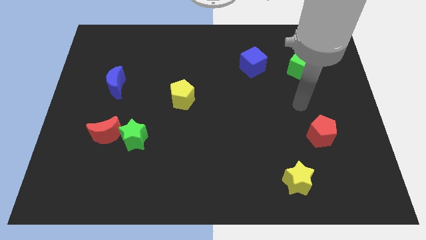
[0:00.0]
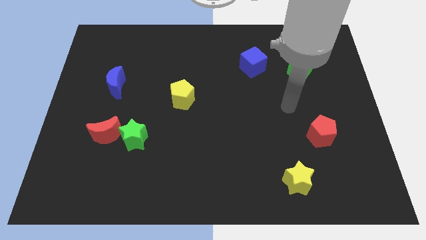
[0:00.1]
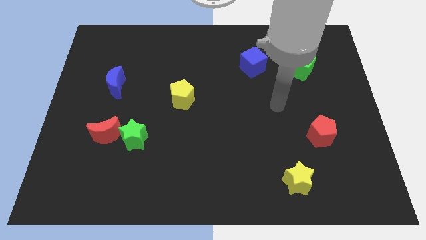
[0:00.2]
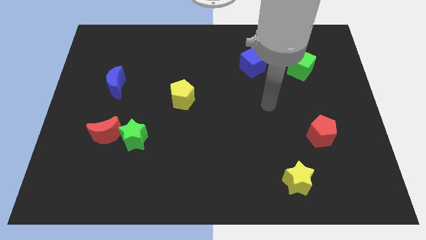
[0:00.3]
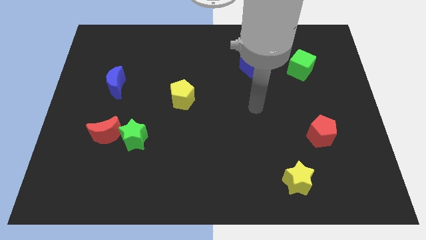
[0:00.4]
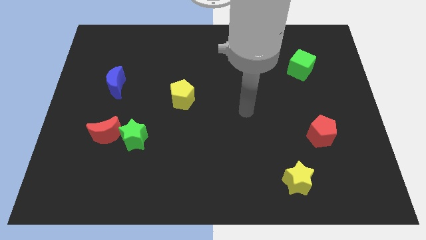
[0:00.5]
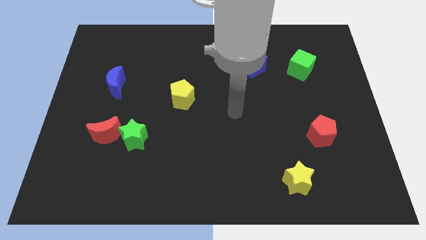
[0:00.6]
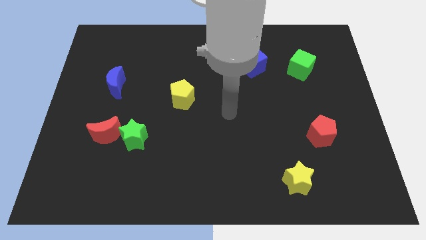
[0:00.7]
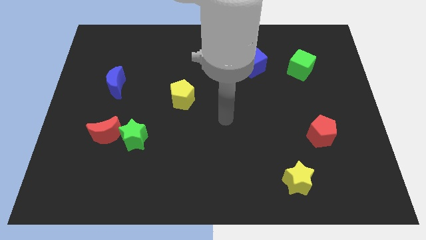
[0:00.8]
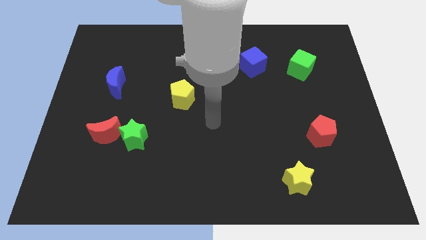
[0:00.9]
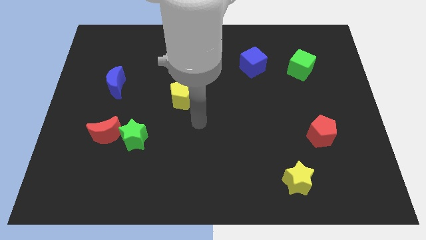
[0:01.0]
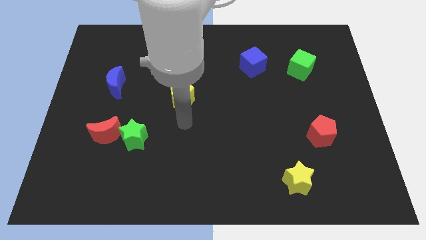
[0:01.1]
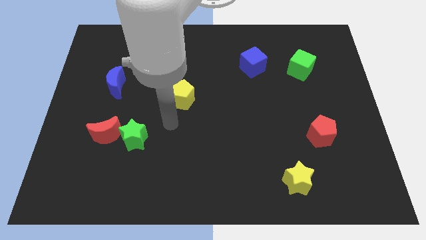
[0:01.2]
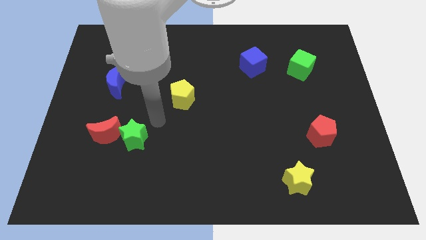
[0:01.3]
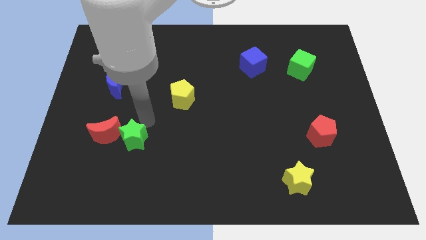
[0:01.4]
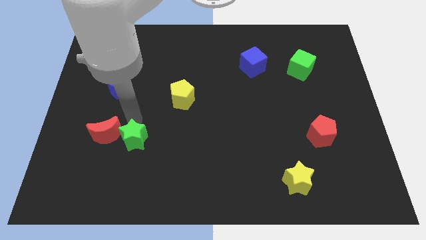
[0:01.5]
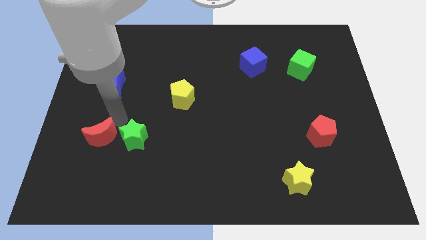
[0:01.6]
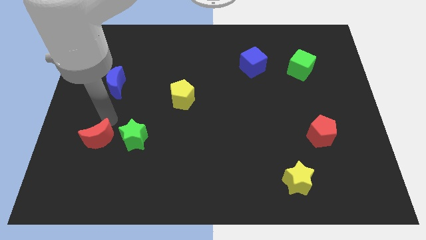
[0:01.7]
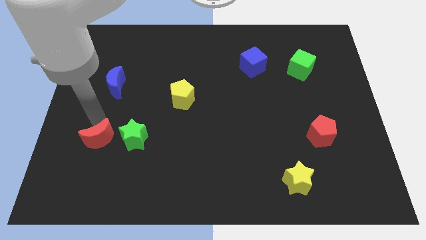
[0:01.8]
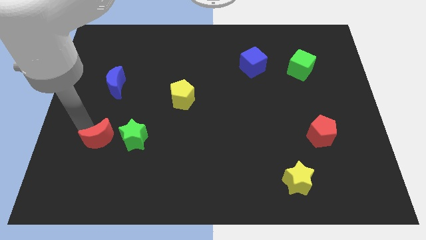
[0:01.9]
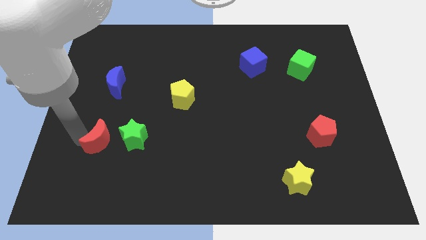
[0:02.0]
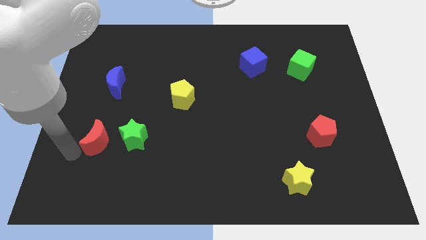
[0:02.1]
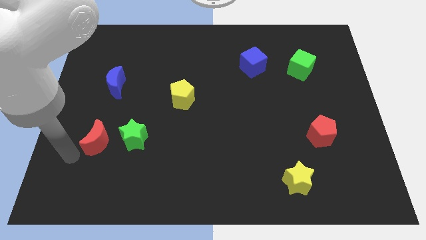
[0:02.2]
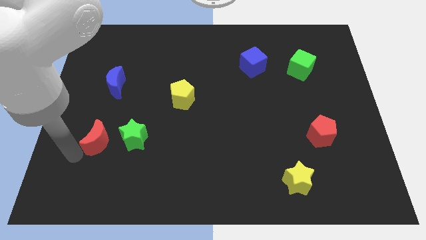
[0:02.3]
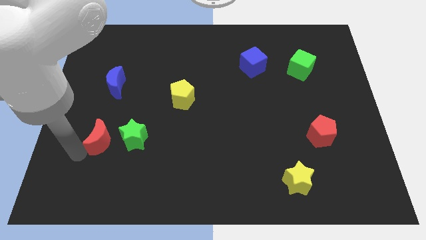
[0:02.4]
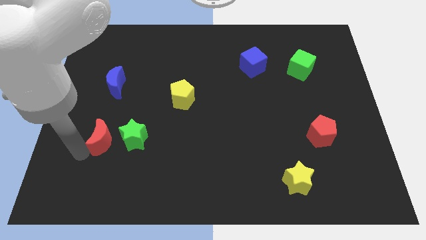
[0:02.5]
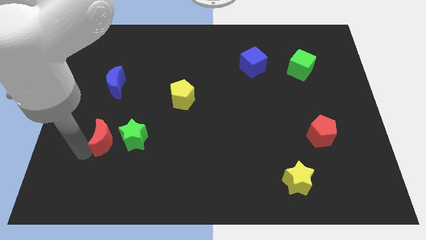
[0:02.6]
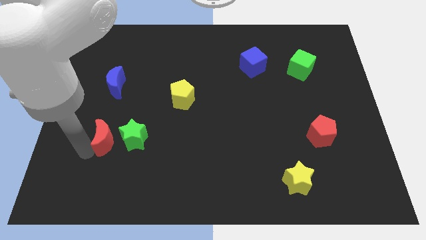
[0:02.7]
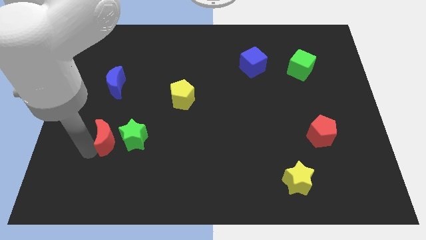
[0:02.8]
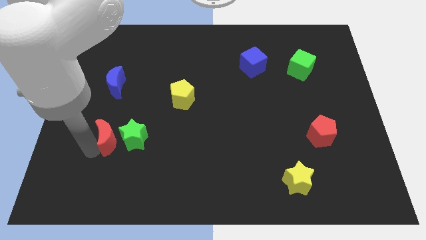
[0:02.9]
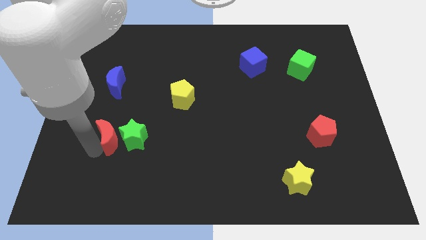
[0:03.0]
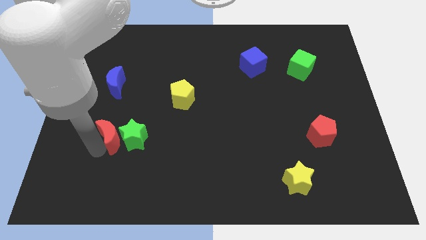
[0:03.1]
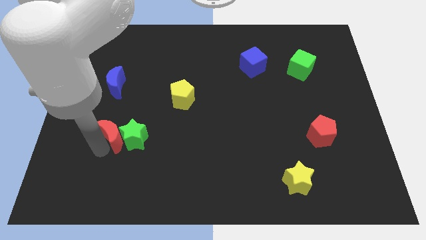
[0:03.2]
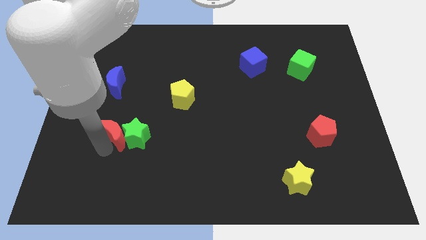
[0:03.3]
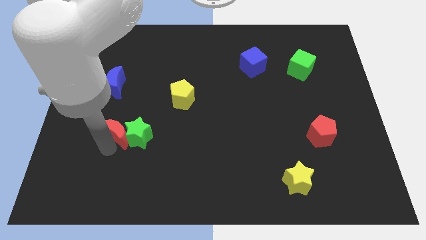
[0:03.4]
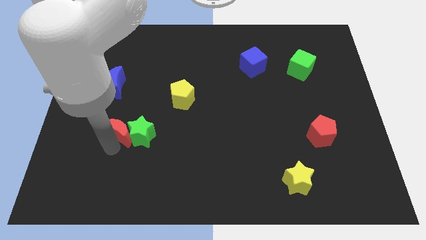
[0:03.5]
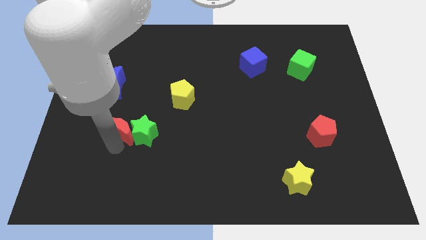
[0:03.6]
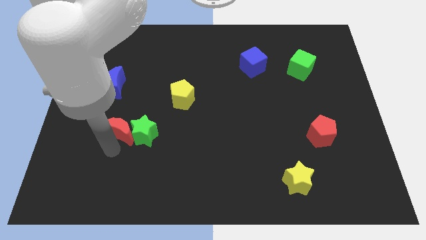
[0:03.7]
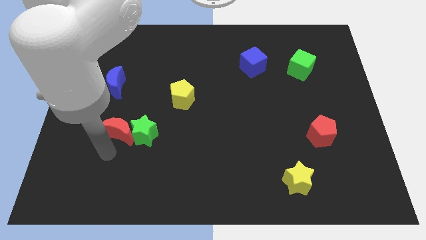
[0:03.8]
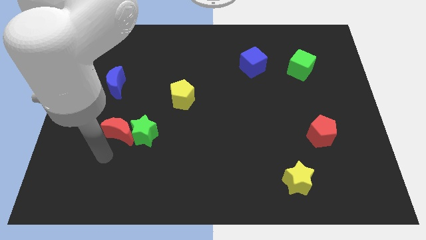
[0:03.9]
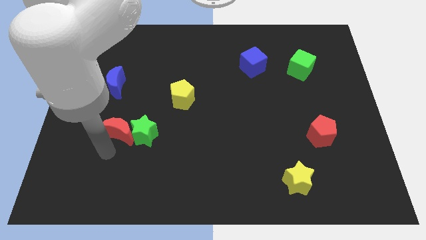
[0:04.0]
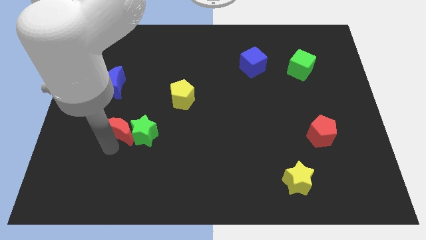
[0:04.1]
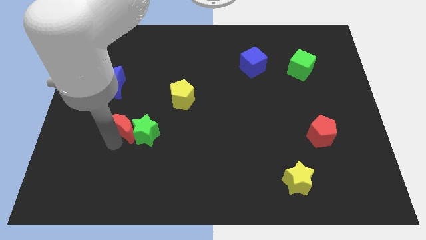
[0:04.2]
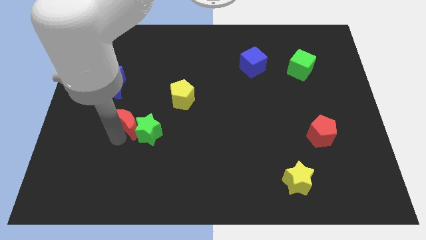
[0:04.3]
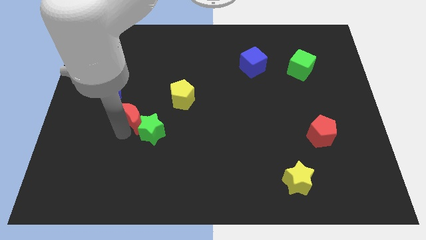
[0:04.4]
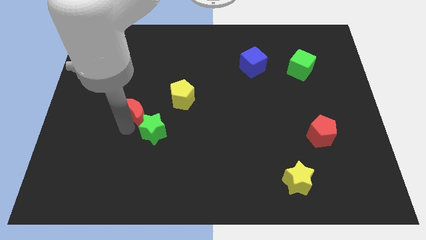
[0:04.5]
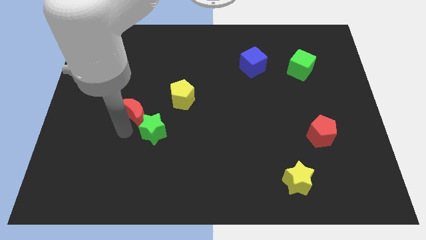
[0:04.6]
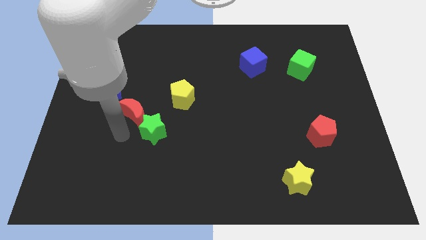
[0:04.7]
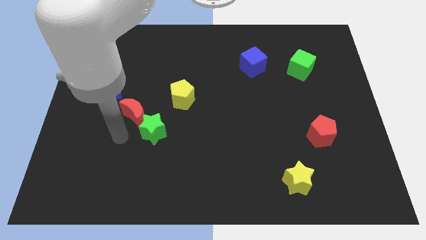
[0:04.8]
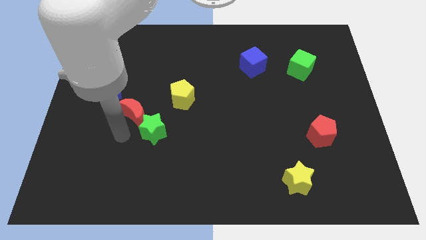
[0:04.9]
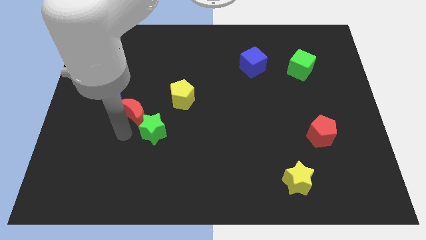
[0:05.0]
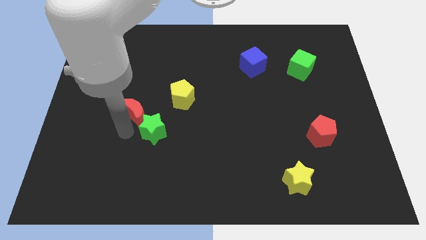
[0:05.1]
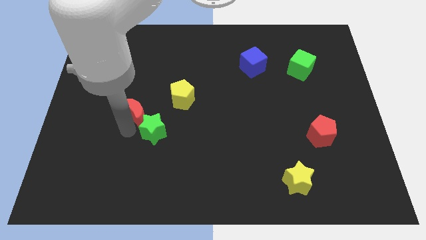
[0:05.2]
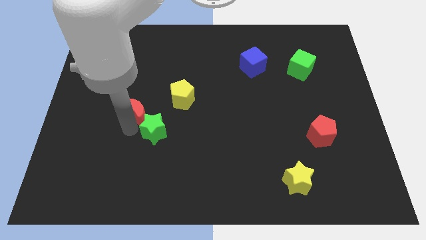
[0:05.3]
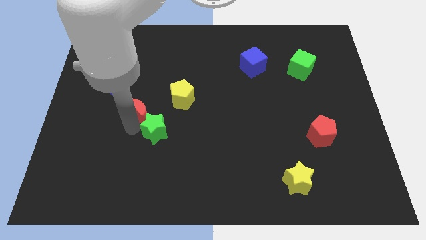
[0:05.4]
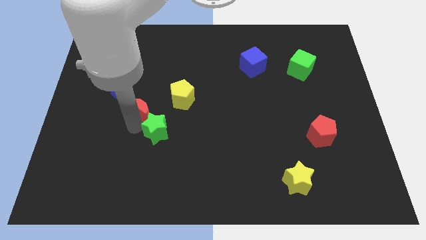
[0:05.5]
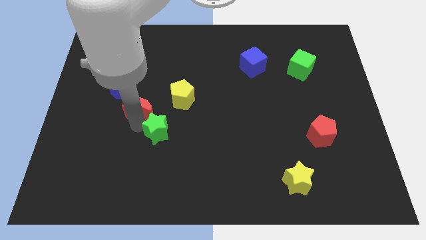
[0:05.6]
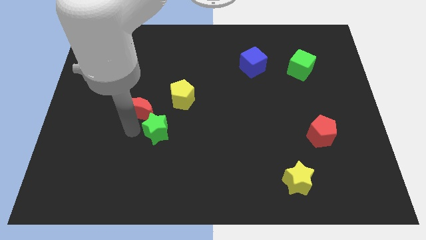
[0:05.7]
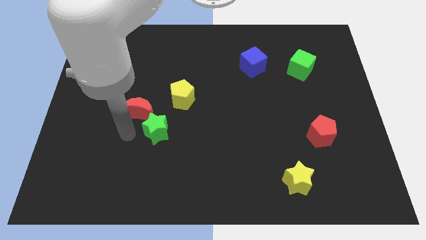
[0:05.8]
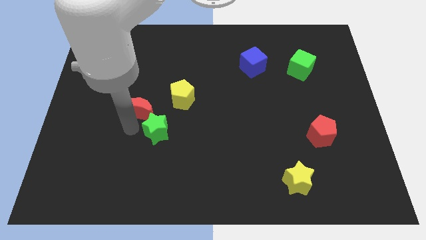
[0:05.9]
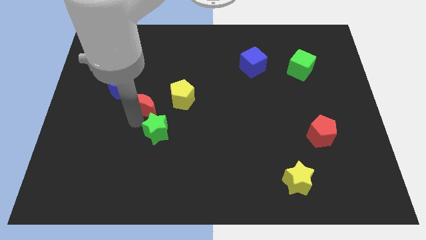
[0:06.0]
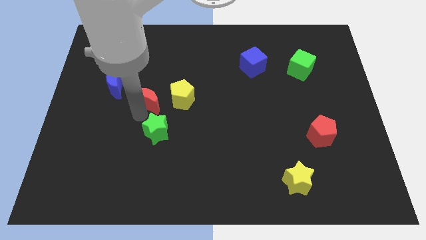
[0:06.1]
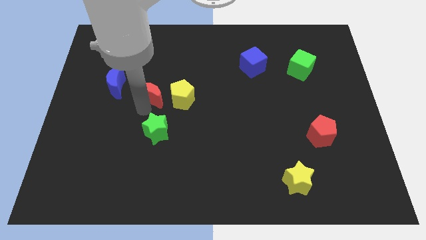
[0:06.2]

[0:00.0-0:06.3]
put the red moon to the right side of the blue moon

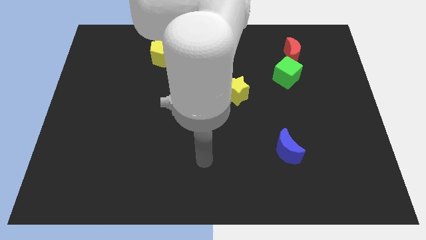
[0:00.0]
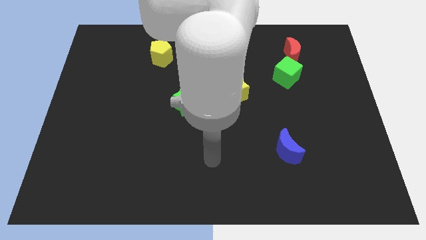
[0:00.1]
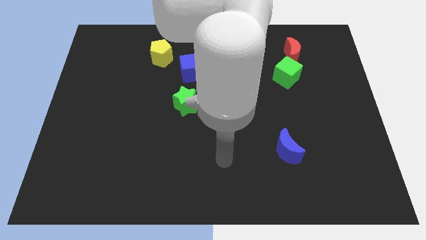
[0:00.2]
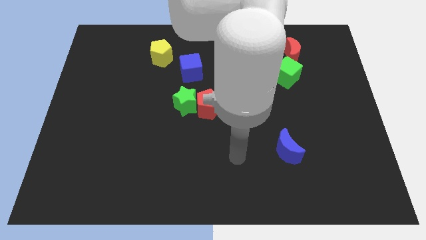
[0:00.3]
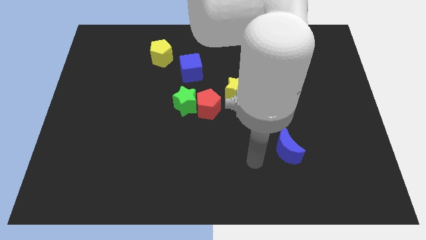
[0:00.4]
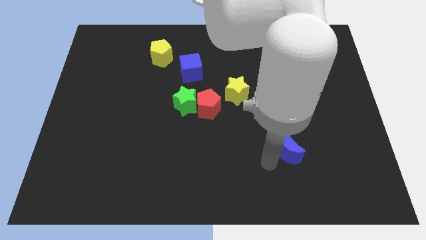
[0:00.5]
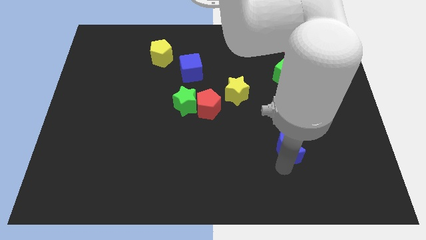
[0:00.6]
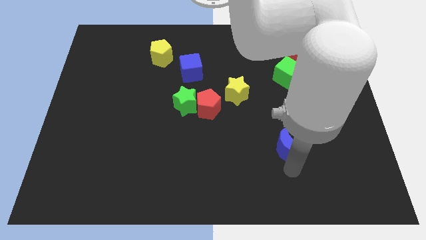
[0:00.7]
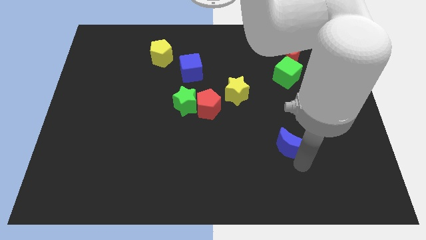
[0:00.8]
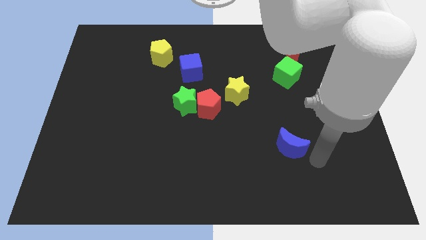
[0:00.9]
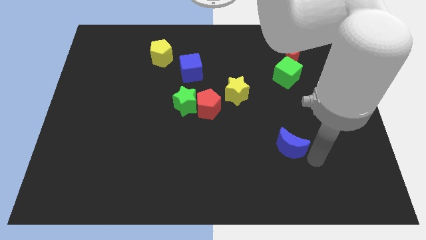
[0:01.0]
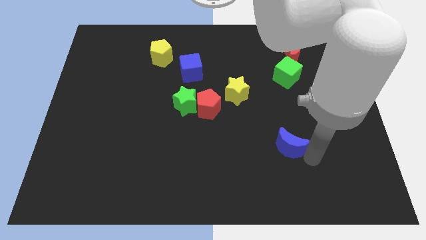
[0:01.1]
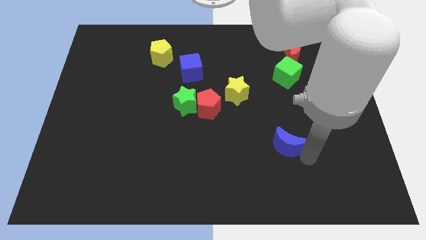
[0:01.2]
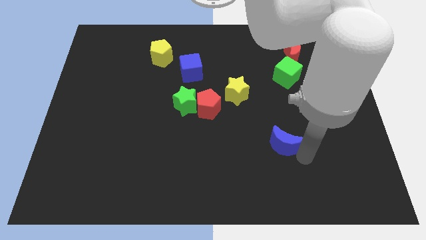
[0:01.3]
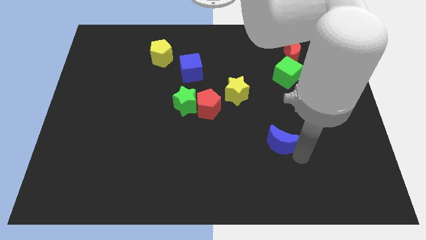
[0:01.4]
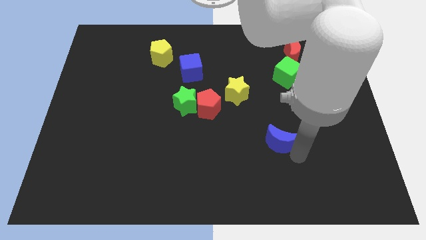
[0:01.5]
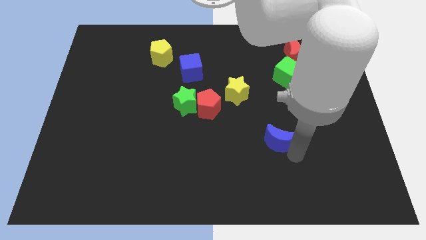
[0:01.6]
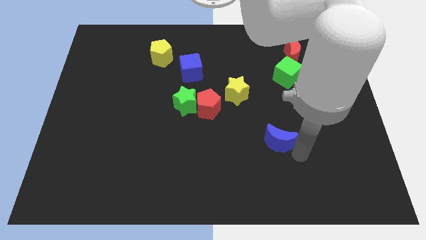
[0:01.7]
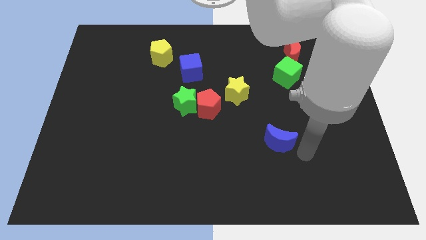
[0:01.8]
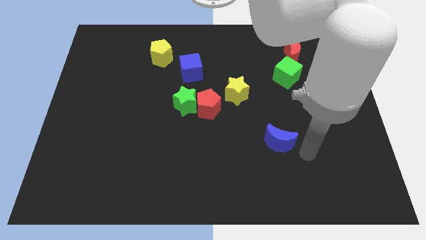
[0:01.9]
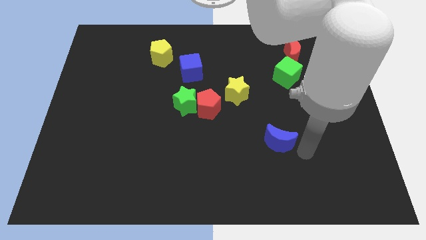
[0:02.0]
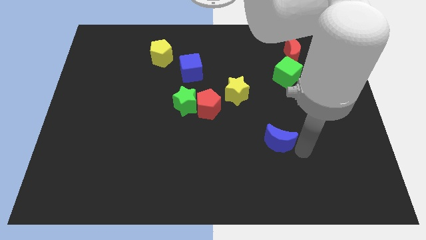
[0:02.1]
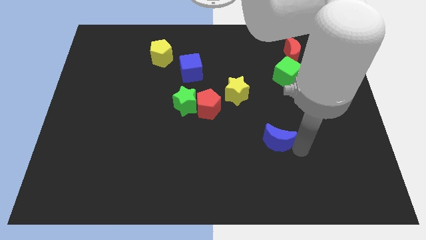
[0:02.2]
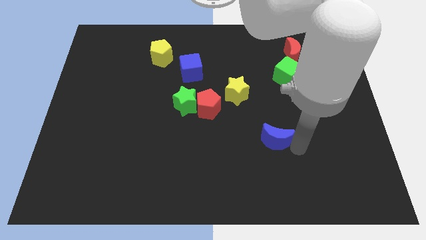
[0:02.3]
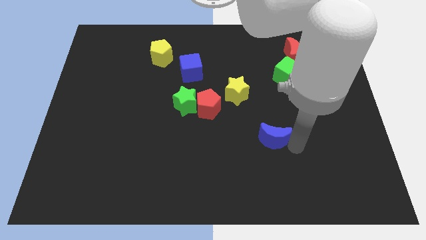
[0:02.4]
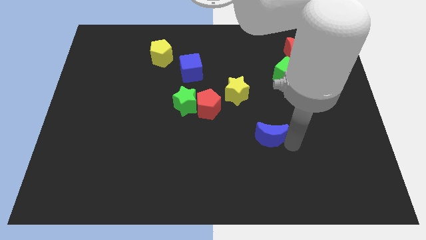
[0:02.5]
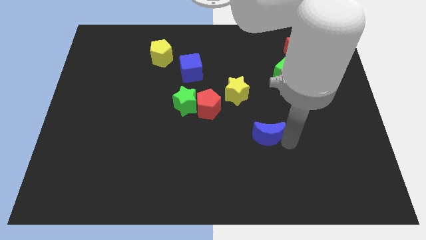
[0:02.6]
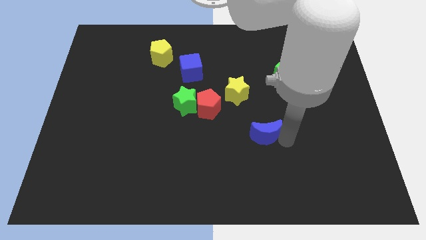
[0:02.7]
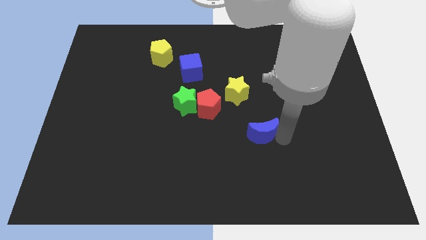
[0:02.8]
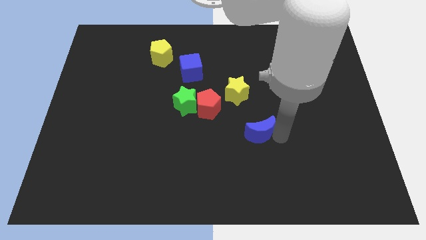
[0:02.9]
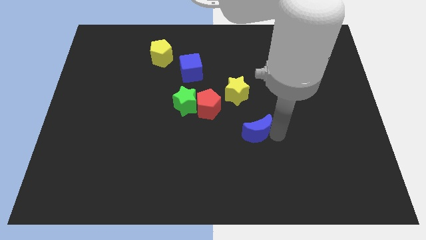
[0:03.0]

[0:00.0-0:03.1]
put the blue moon to the bottom of the yellow star
